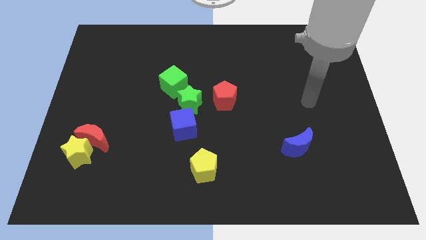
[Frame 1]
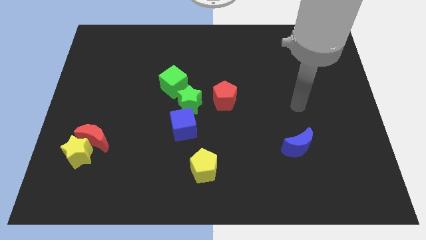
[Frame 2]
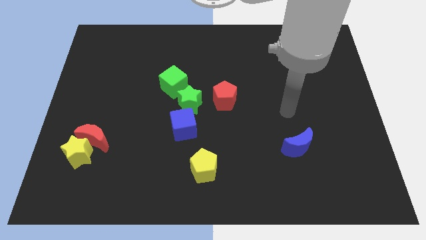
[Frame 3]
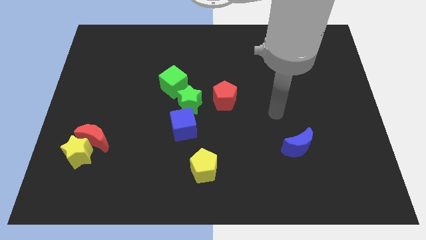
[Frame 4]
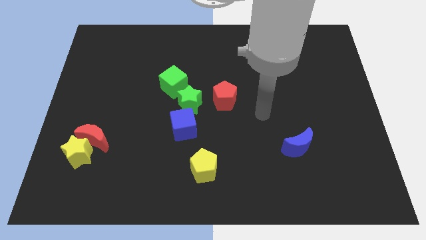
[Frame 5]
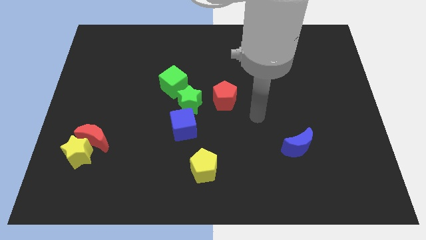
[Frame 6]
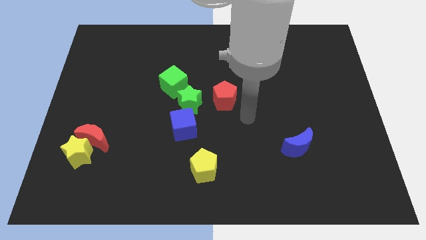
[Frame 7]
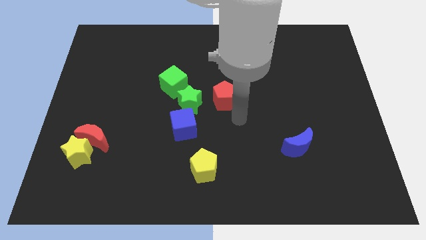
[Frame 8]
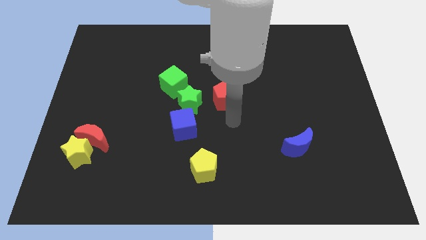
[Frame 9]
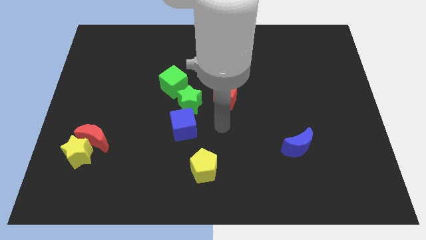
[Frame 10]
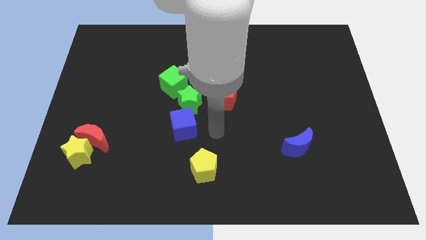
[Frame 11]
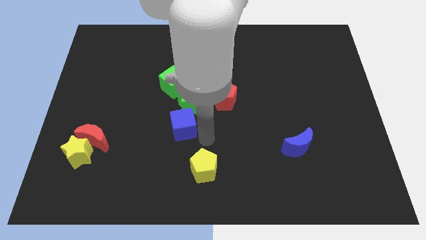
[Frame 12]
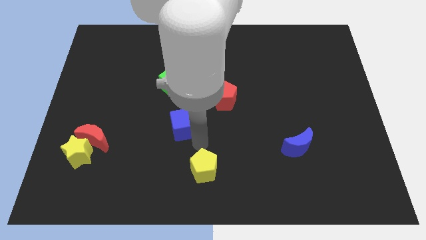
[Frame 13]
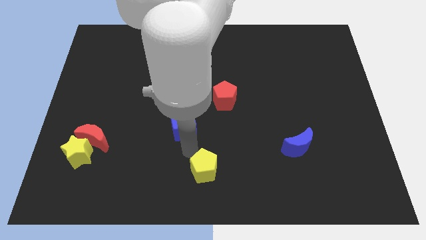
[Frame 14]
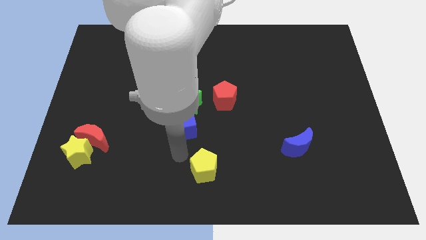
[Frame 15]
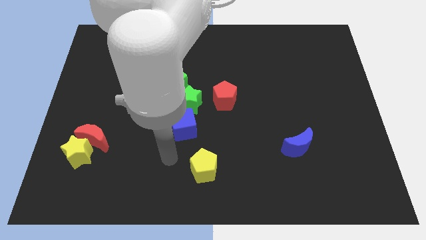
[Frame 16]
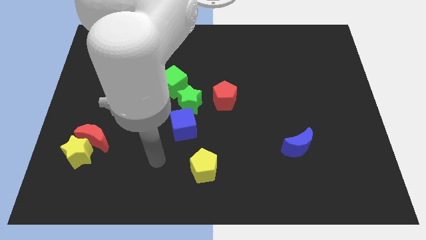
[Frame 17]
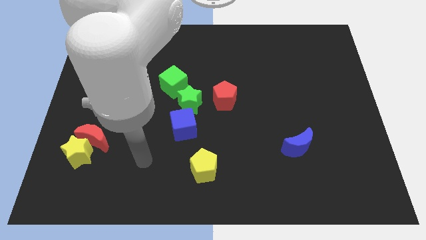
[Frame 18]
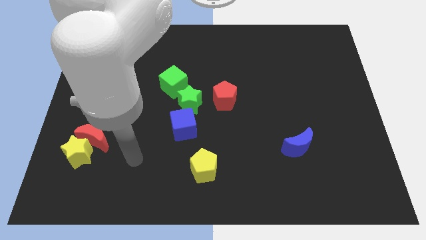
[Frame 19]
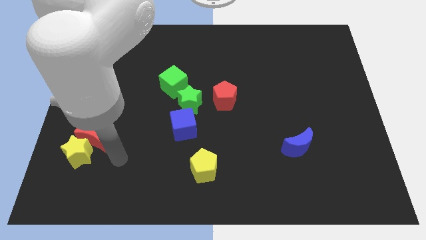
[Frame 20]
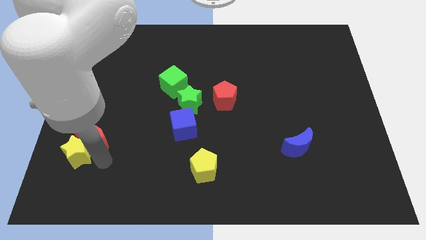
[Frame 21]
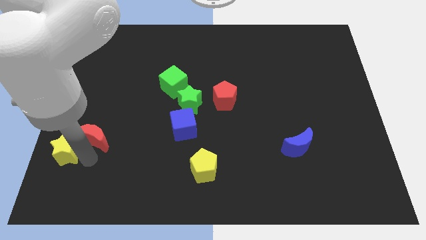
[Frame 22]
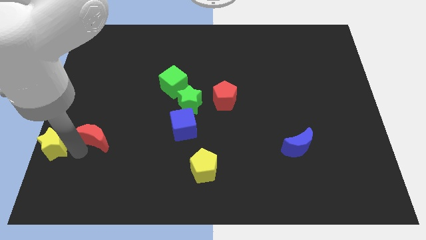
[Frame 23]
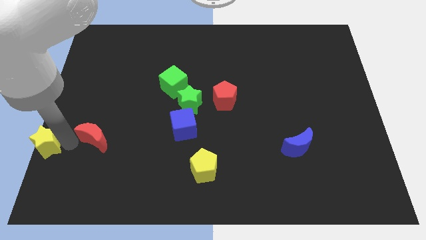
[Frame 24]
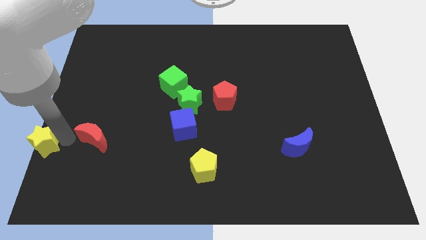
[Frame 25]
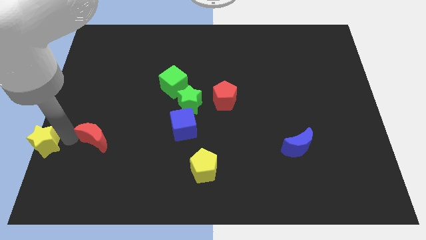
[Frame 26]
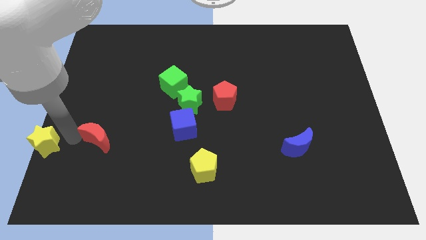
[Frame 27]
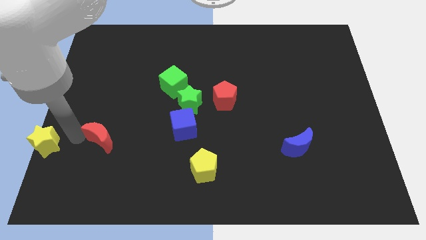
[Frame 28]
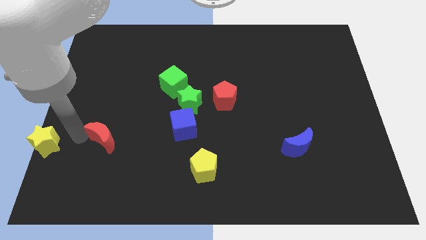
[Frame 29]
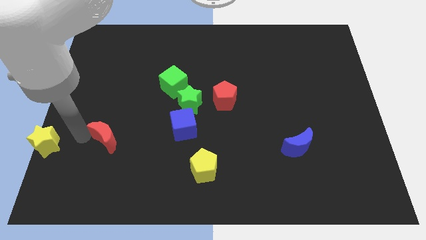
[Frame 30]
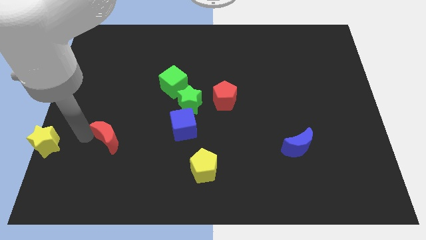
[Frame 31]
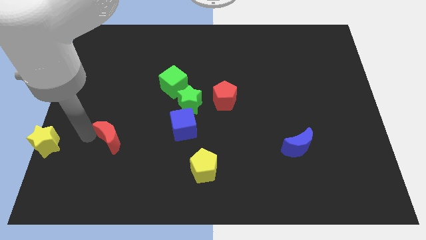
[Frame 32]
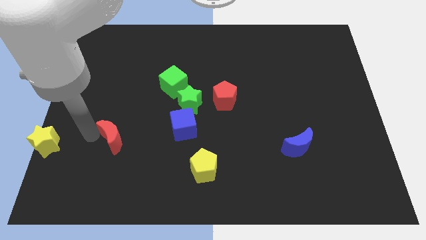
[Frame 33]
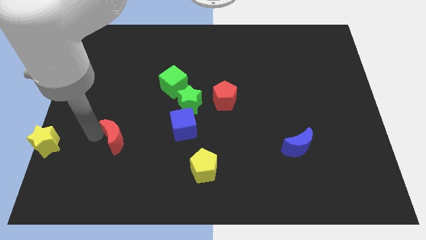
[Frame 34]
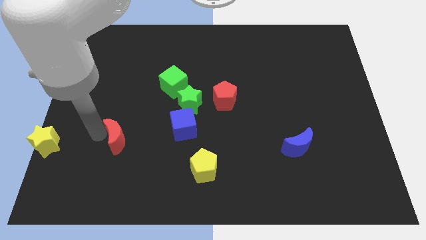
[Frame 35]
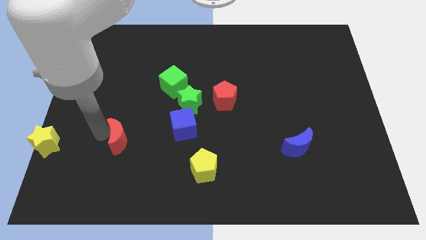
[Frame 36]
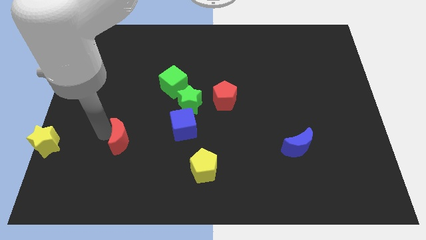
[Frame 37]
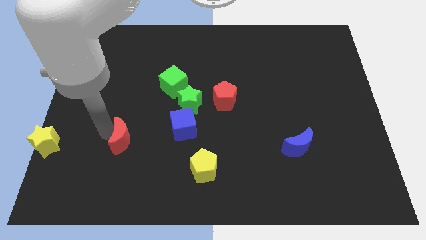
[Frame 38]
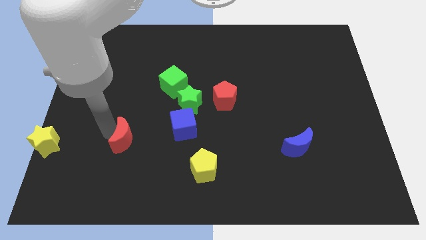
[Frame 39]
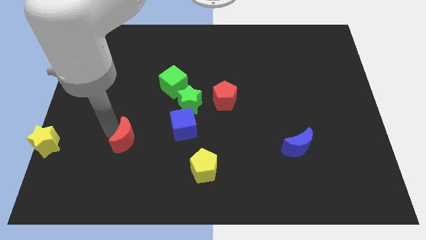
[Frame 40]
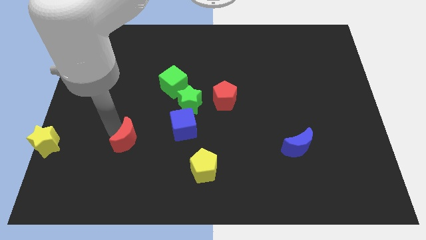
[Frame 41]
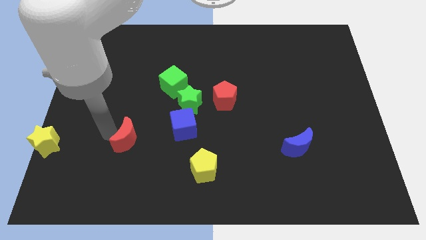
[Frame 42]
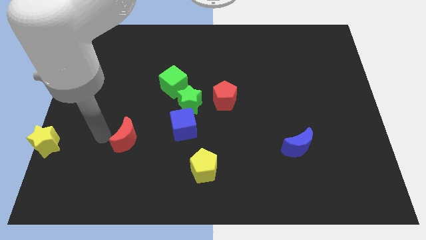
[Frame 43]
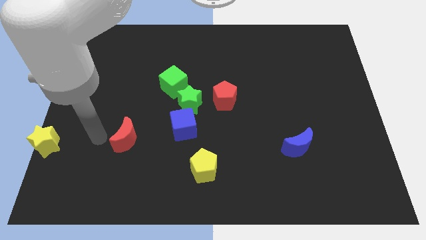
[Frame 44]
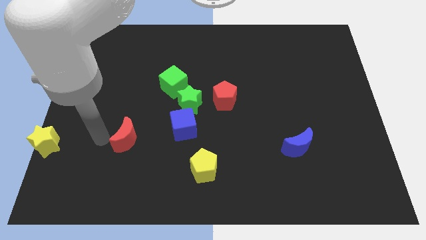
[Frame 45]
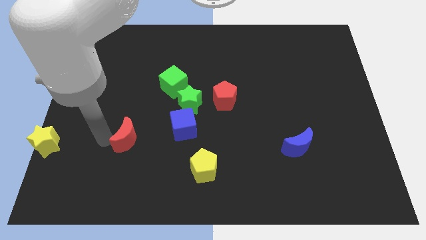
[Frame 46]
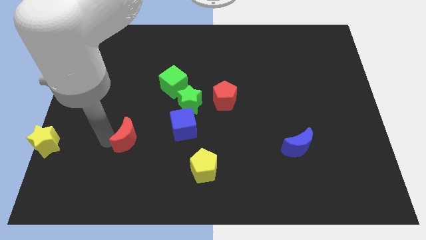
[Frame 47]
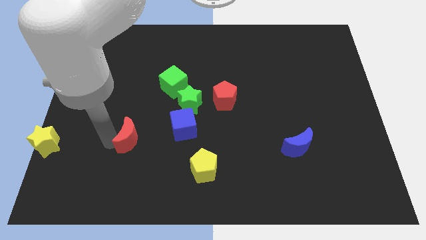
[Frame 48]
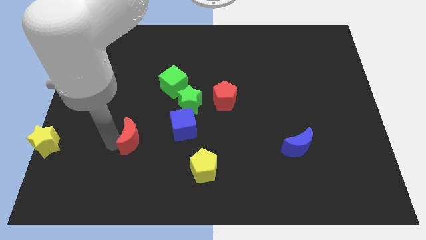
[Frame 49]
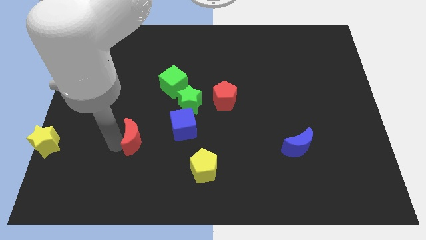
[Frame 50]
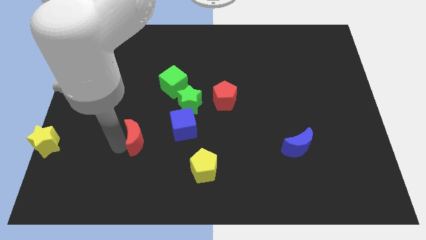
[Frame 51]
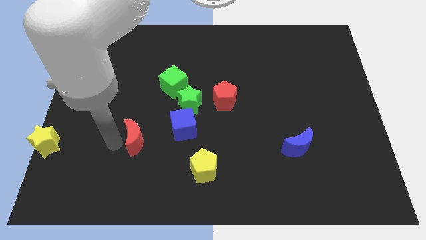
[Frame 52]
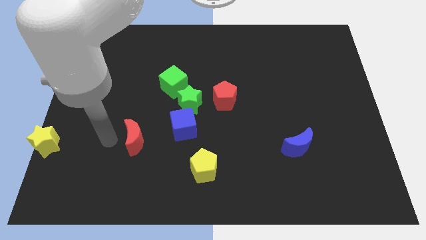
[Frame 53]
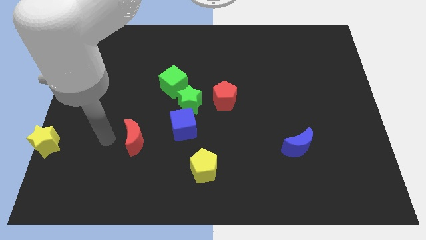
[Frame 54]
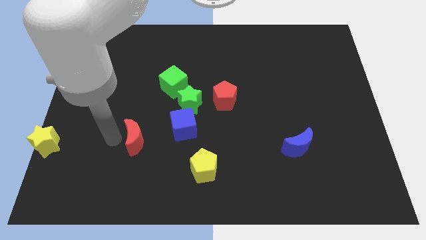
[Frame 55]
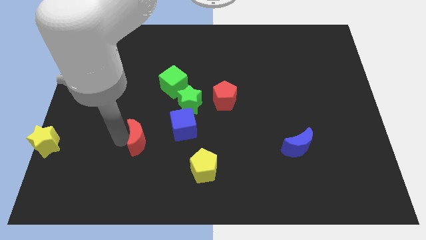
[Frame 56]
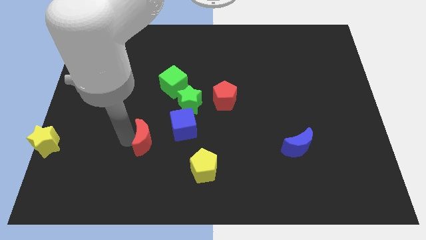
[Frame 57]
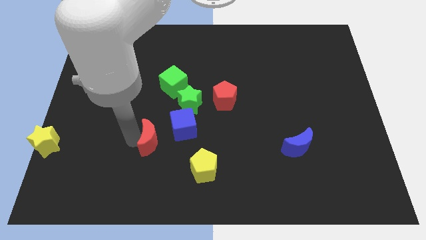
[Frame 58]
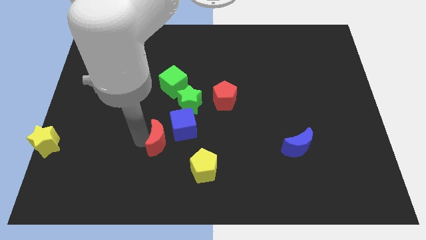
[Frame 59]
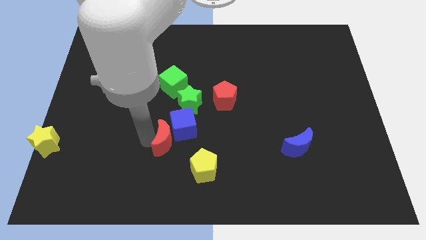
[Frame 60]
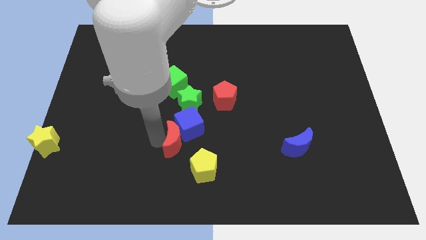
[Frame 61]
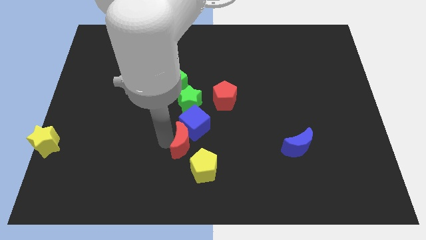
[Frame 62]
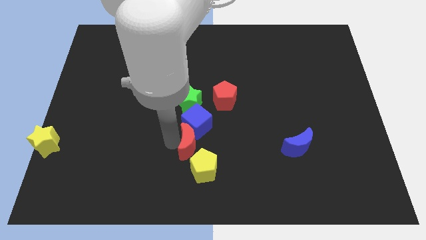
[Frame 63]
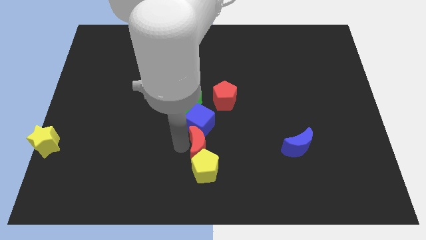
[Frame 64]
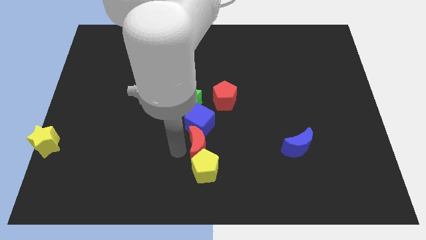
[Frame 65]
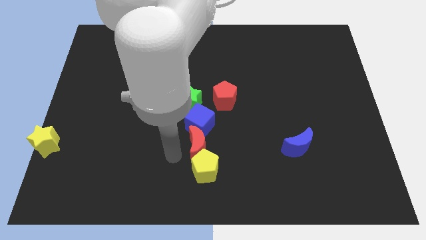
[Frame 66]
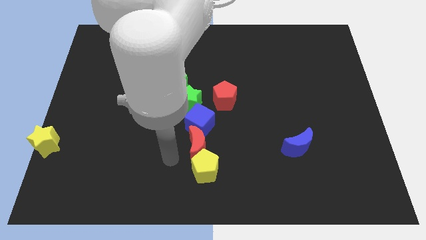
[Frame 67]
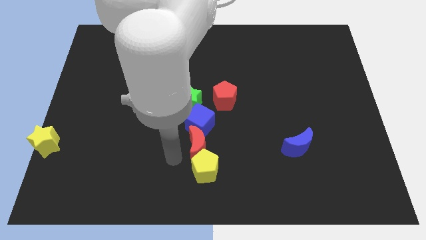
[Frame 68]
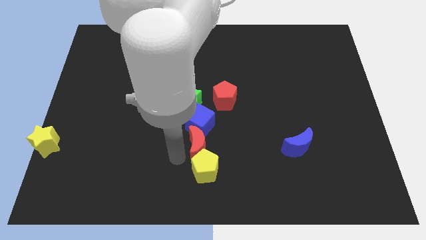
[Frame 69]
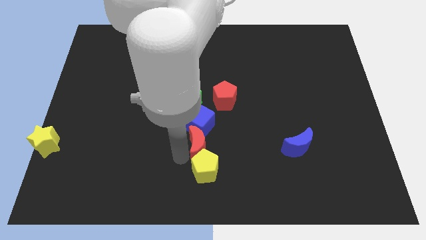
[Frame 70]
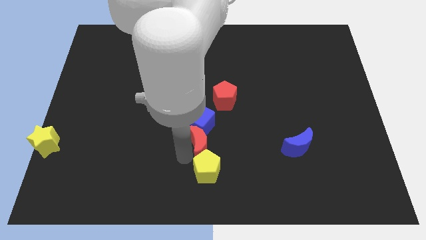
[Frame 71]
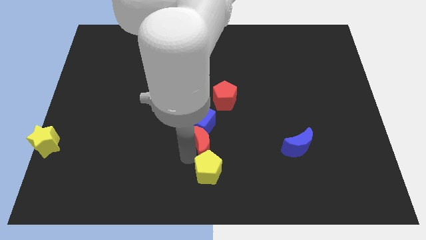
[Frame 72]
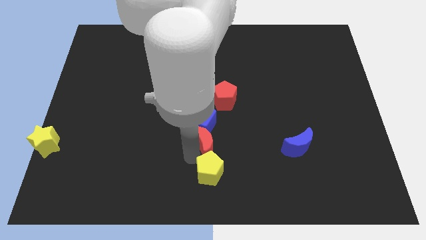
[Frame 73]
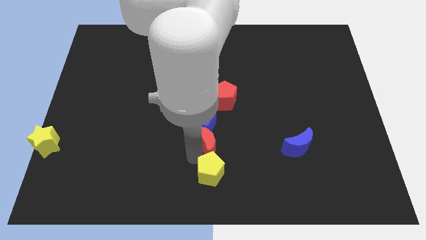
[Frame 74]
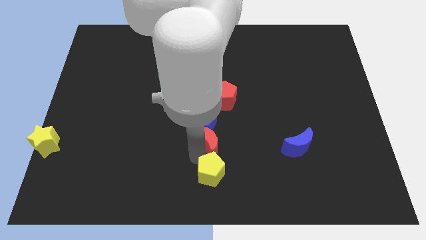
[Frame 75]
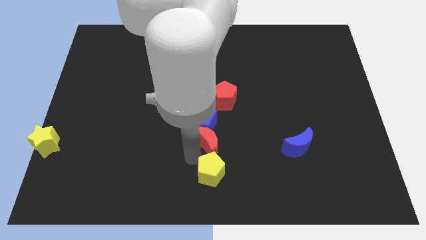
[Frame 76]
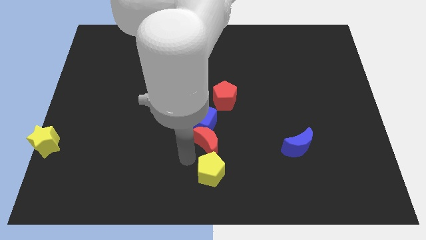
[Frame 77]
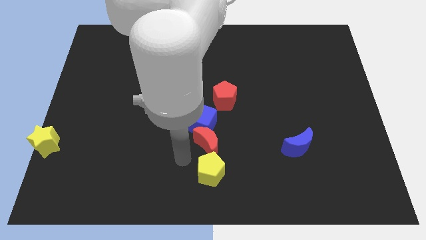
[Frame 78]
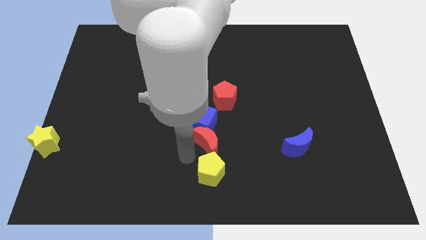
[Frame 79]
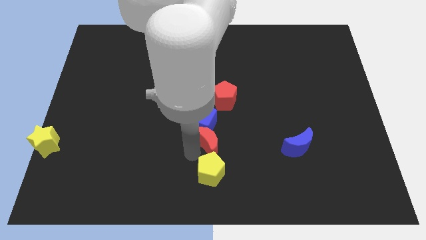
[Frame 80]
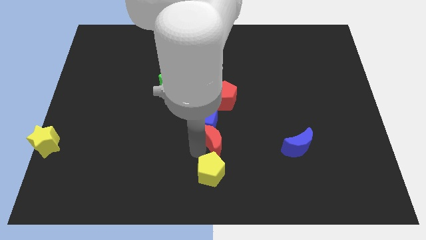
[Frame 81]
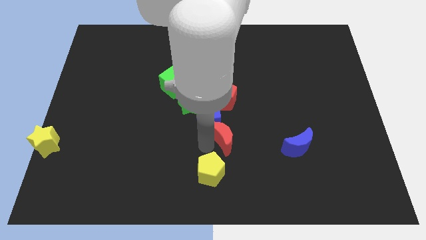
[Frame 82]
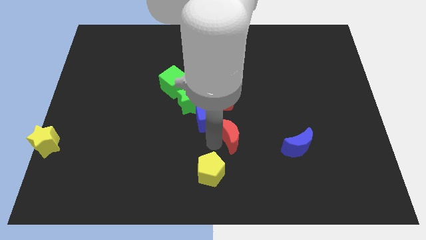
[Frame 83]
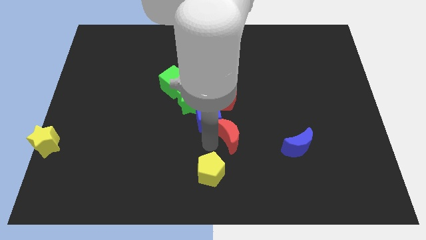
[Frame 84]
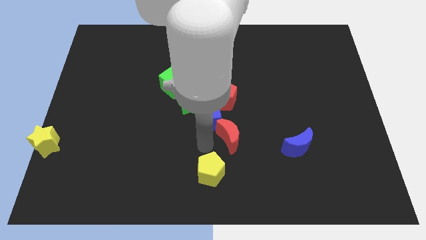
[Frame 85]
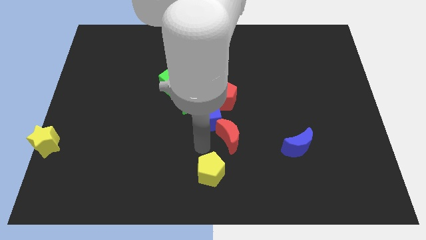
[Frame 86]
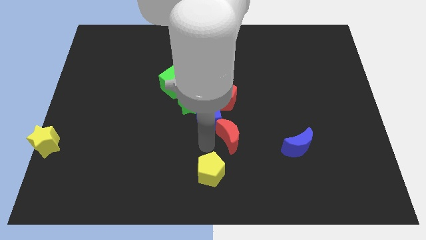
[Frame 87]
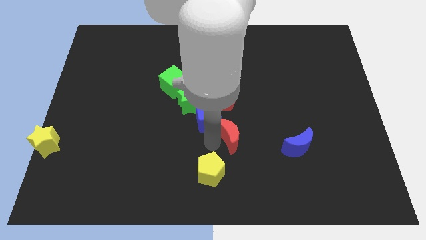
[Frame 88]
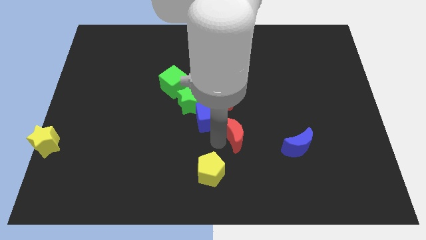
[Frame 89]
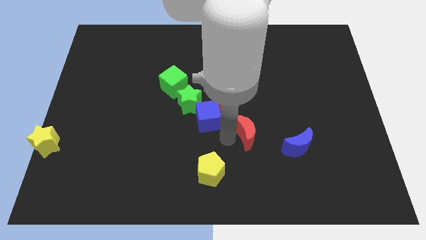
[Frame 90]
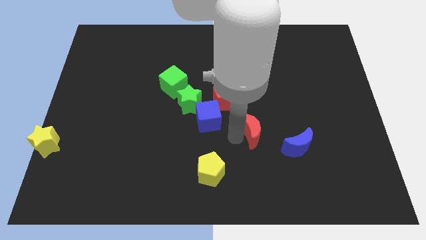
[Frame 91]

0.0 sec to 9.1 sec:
move the red moon to the top left of the blue moon
